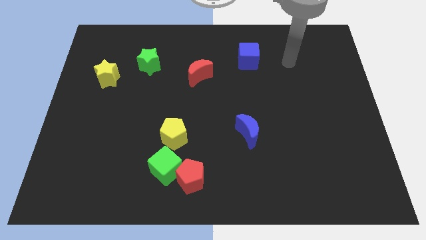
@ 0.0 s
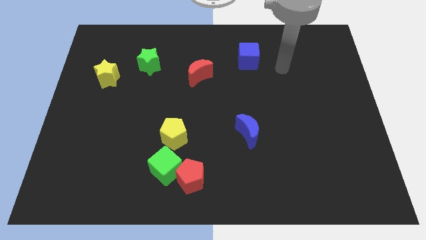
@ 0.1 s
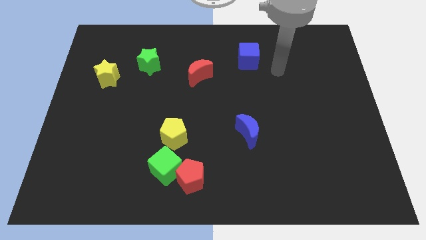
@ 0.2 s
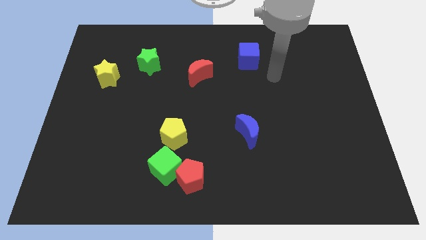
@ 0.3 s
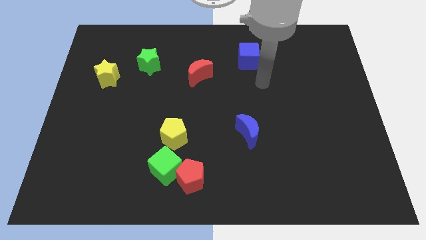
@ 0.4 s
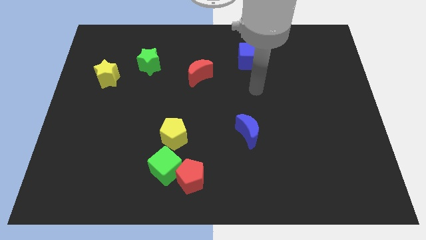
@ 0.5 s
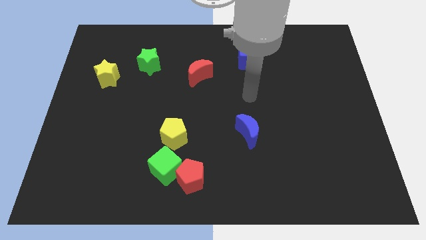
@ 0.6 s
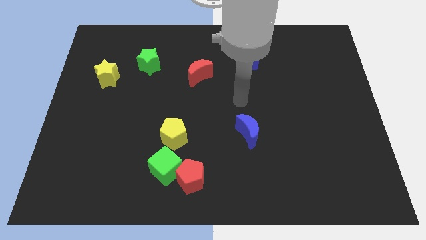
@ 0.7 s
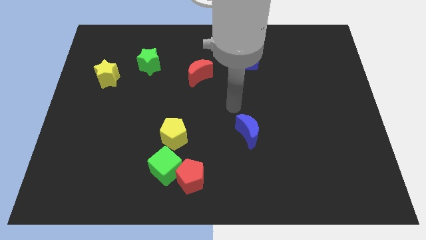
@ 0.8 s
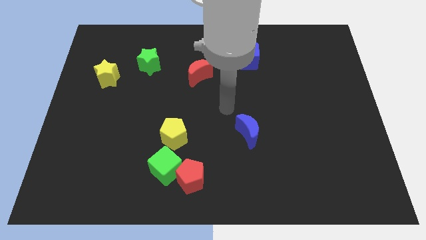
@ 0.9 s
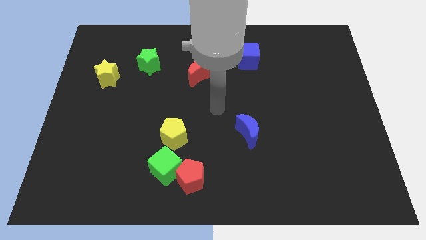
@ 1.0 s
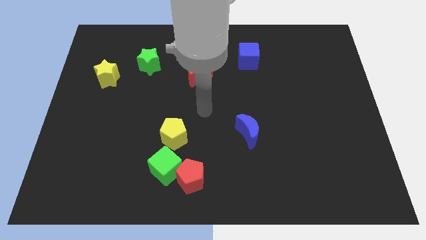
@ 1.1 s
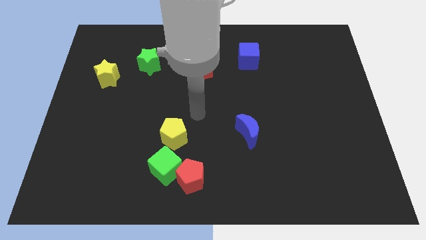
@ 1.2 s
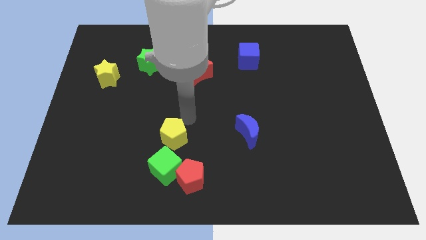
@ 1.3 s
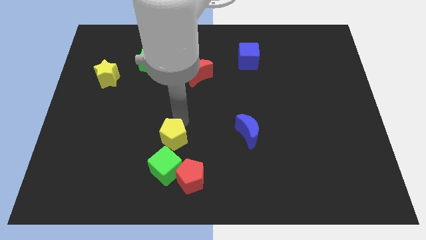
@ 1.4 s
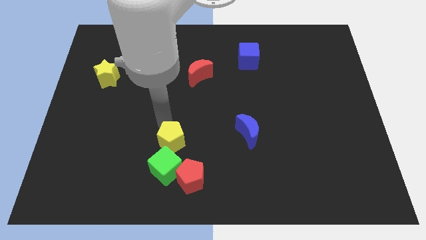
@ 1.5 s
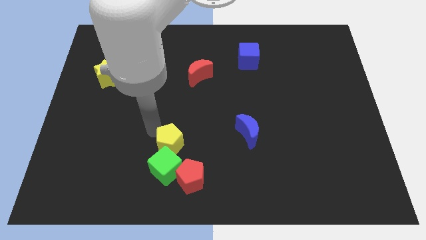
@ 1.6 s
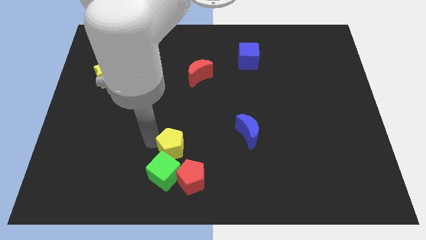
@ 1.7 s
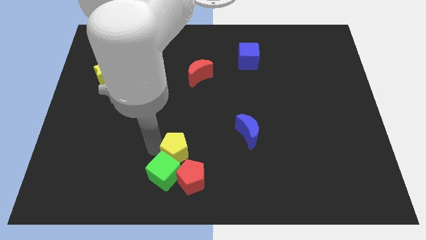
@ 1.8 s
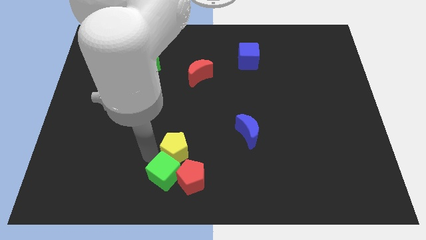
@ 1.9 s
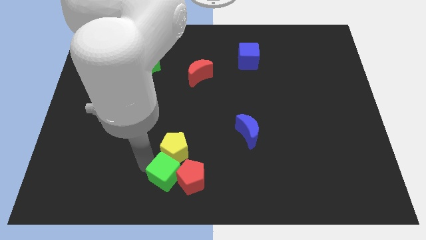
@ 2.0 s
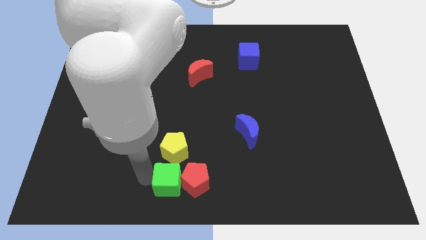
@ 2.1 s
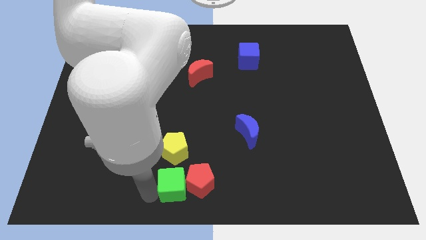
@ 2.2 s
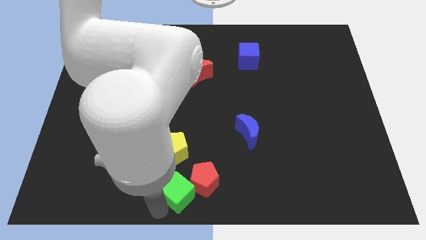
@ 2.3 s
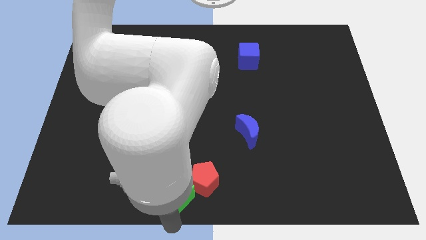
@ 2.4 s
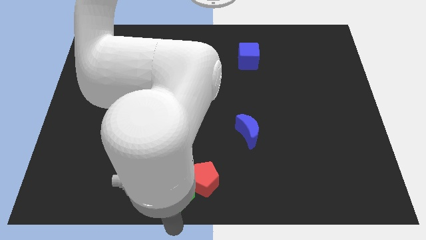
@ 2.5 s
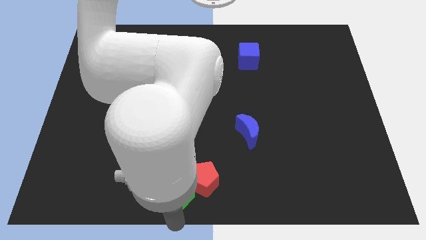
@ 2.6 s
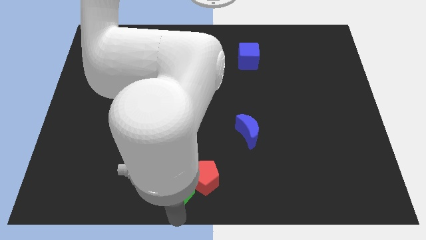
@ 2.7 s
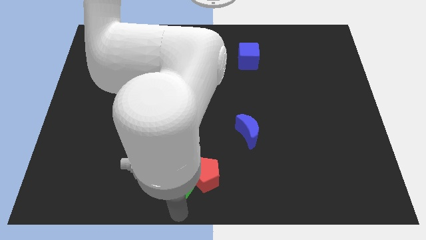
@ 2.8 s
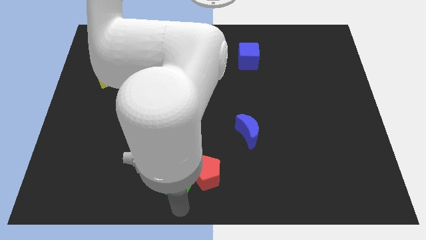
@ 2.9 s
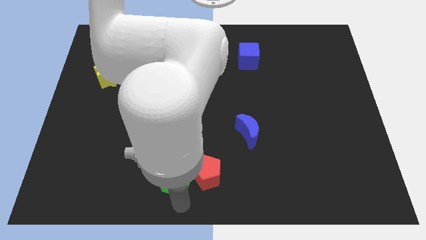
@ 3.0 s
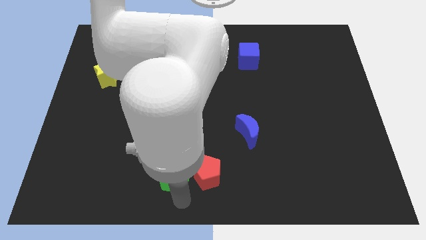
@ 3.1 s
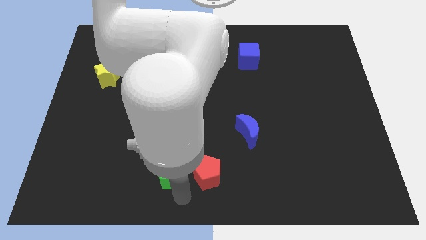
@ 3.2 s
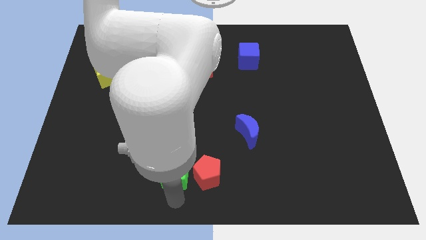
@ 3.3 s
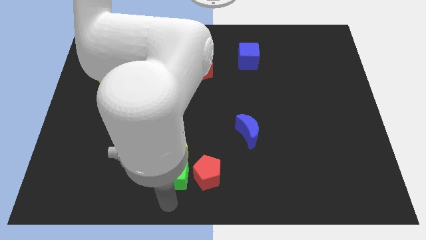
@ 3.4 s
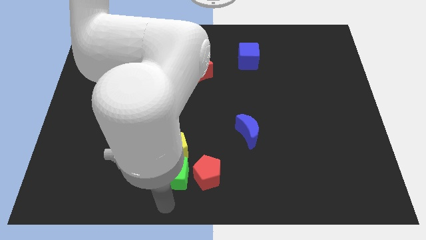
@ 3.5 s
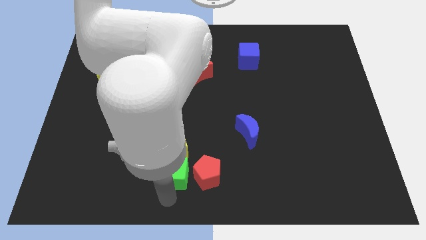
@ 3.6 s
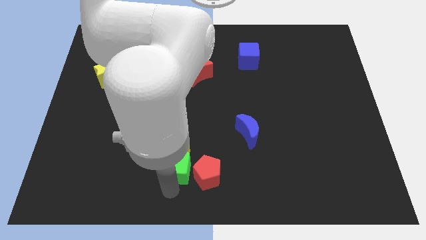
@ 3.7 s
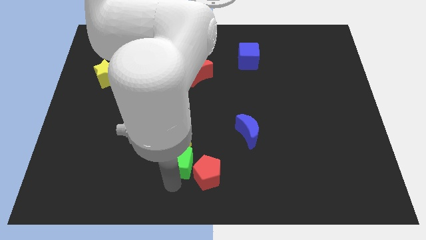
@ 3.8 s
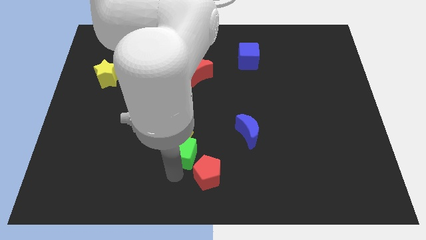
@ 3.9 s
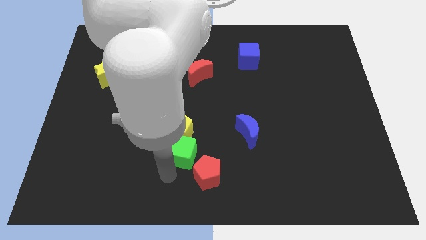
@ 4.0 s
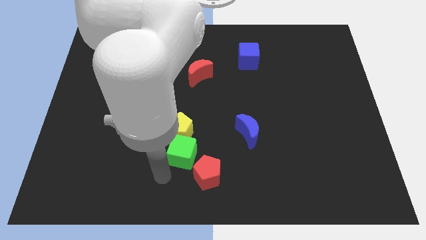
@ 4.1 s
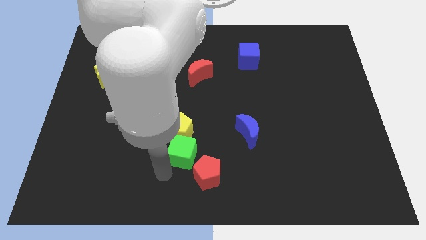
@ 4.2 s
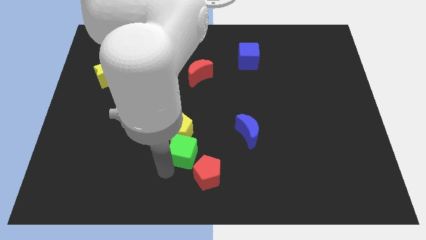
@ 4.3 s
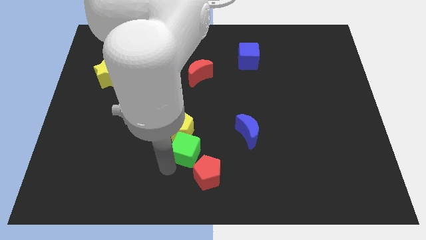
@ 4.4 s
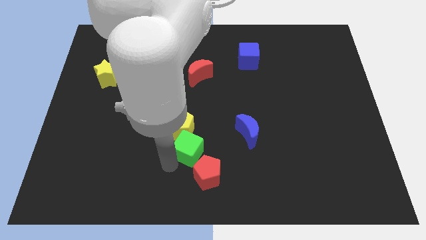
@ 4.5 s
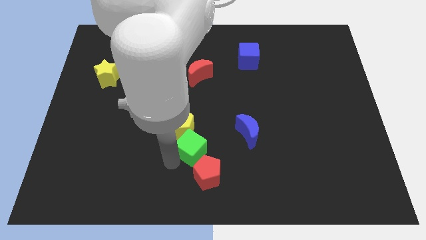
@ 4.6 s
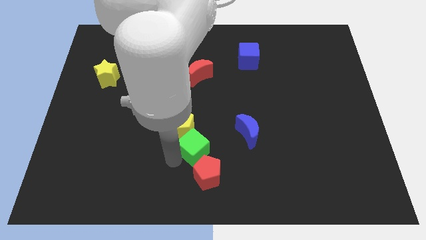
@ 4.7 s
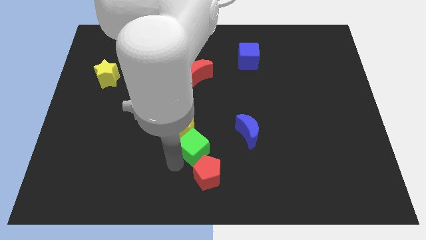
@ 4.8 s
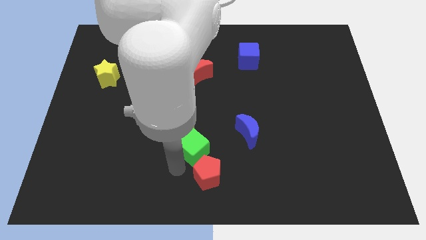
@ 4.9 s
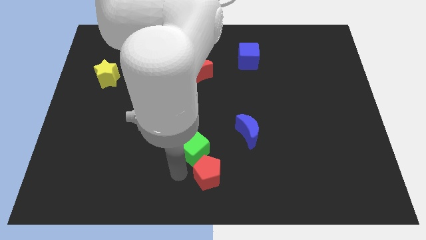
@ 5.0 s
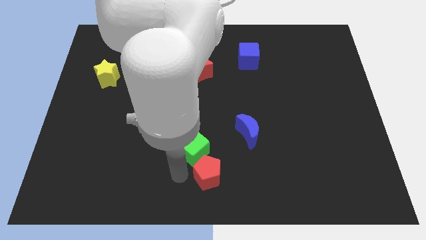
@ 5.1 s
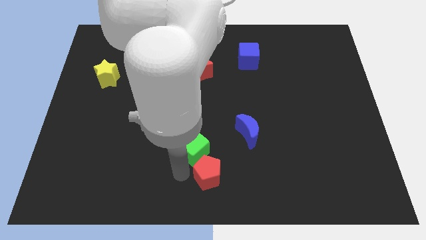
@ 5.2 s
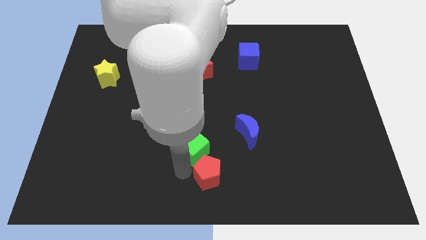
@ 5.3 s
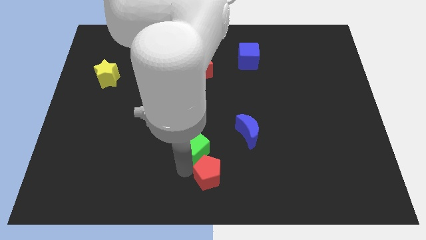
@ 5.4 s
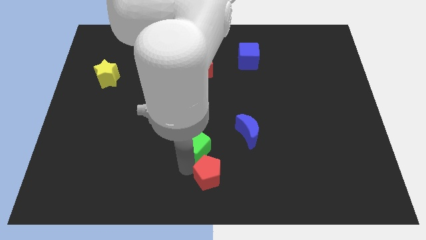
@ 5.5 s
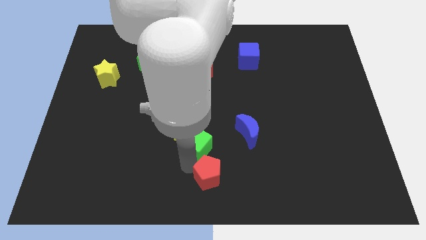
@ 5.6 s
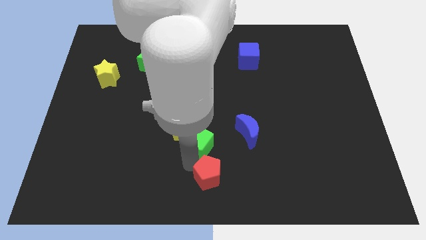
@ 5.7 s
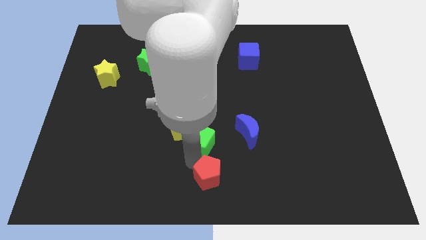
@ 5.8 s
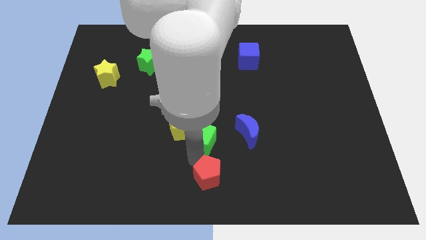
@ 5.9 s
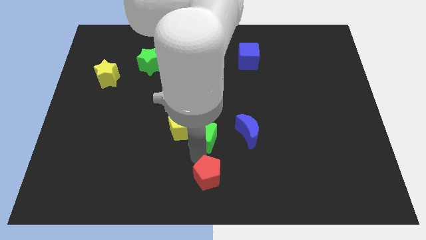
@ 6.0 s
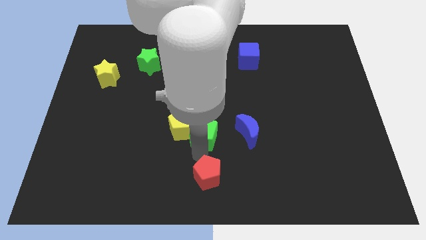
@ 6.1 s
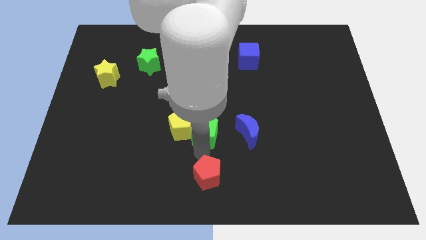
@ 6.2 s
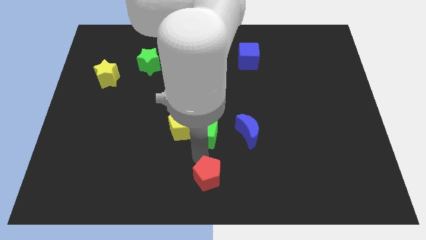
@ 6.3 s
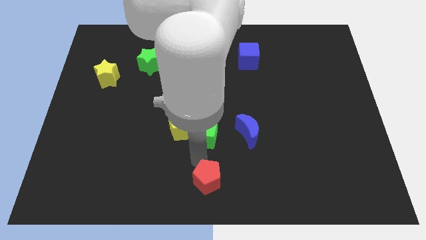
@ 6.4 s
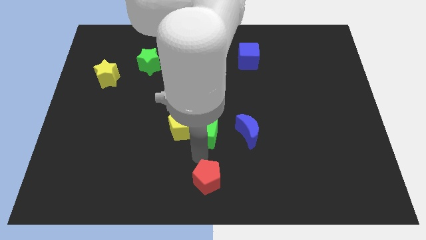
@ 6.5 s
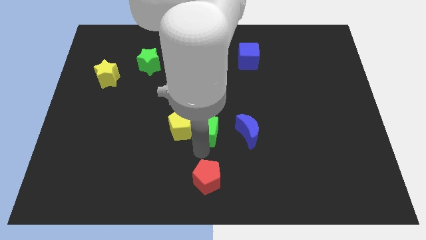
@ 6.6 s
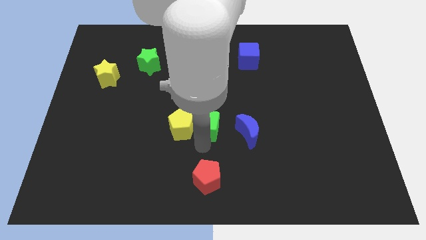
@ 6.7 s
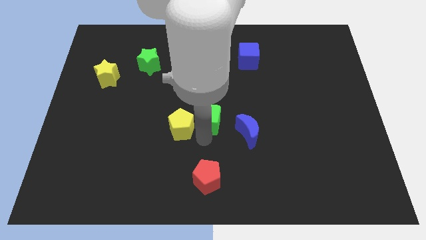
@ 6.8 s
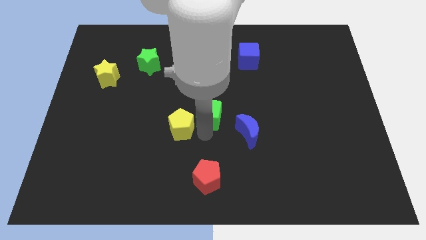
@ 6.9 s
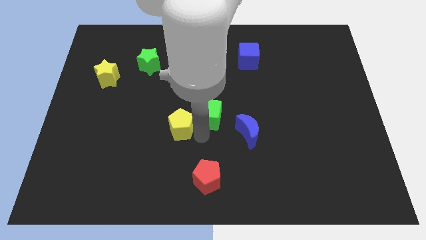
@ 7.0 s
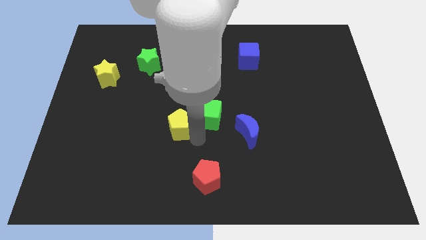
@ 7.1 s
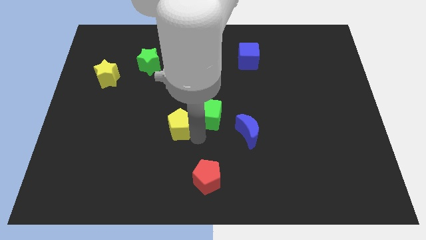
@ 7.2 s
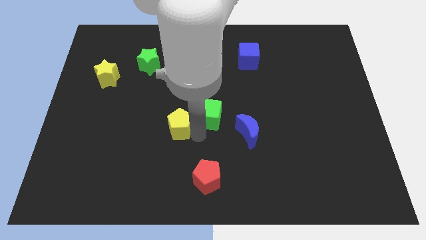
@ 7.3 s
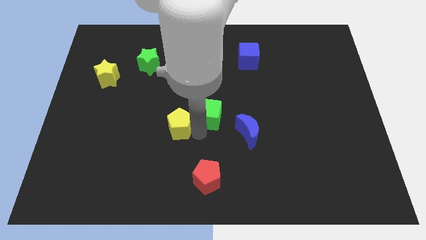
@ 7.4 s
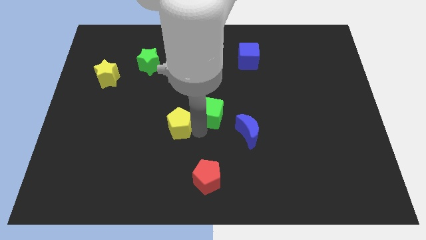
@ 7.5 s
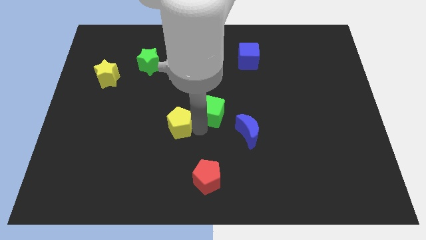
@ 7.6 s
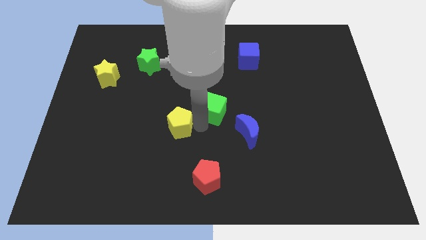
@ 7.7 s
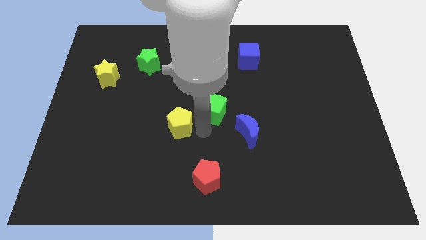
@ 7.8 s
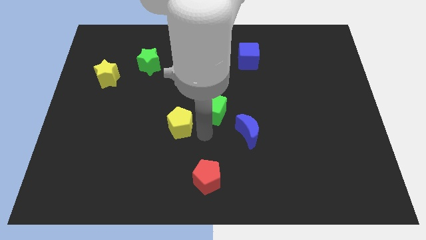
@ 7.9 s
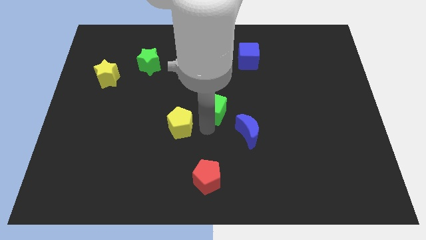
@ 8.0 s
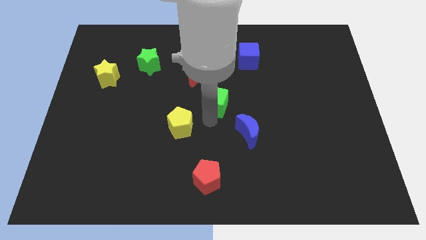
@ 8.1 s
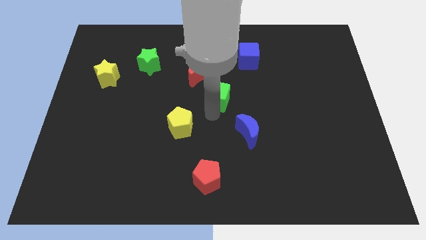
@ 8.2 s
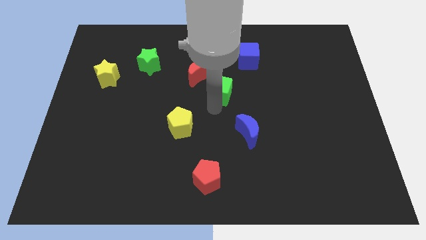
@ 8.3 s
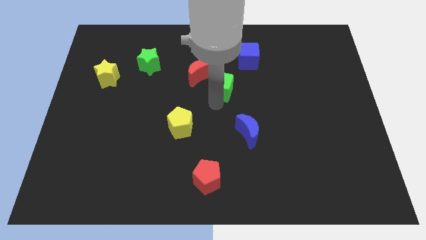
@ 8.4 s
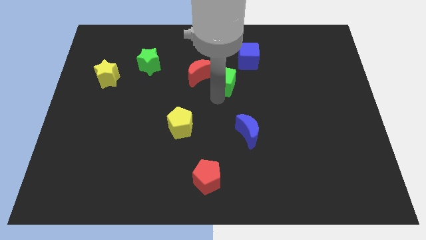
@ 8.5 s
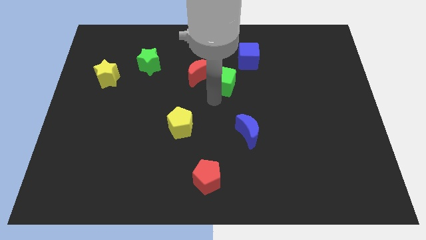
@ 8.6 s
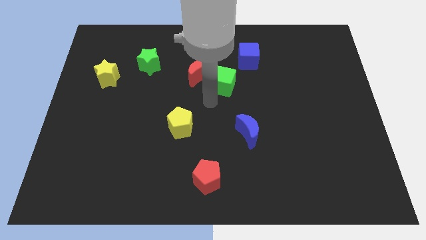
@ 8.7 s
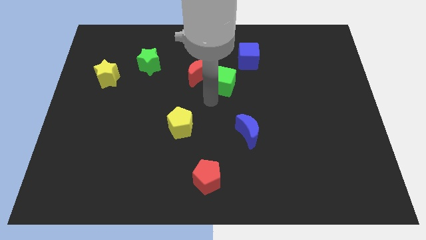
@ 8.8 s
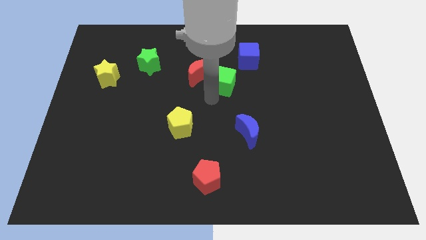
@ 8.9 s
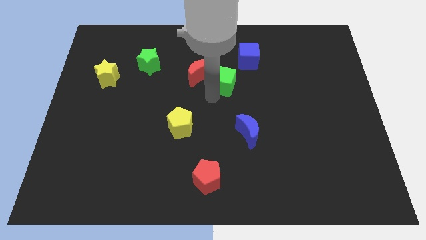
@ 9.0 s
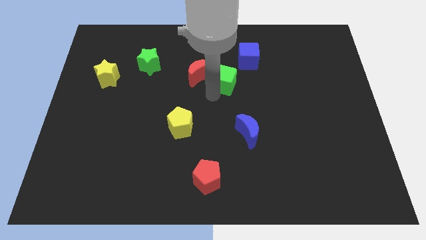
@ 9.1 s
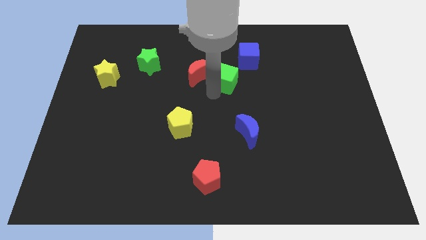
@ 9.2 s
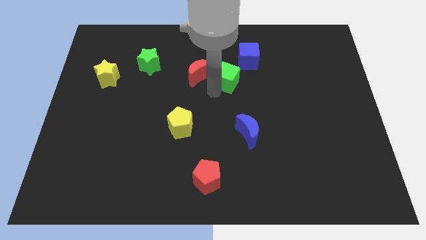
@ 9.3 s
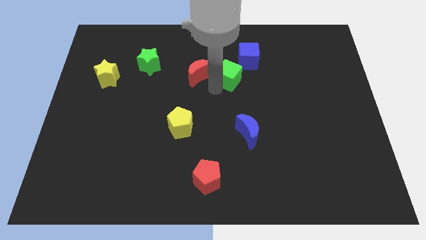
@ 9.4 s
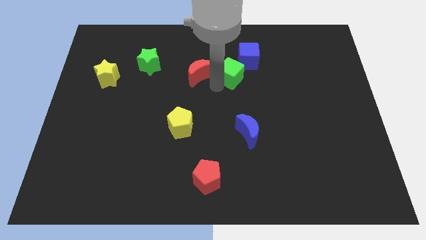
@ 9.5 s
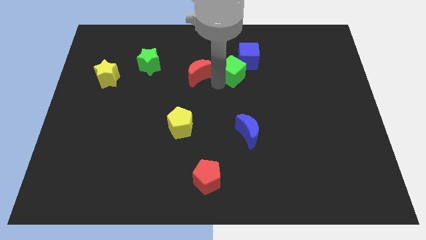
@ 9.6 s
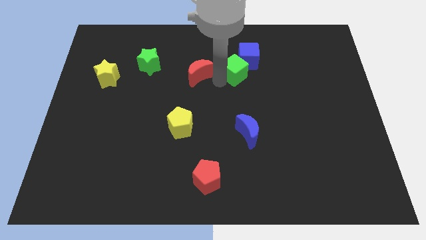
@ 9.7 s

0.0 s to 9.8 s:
push the green cube close to the blue cube
